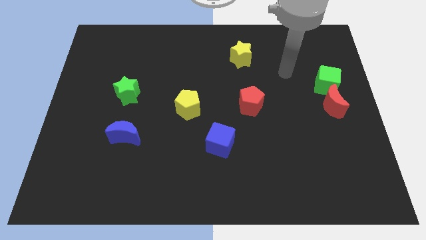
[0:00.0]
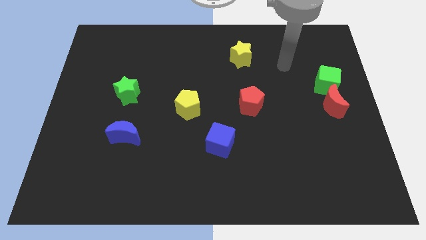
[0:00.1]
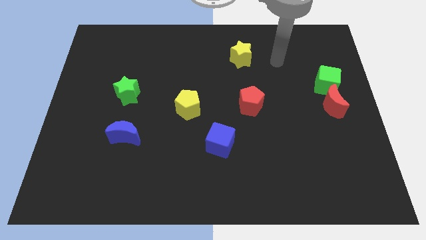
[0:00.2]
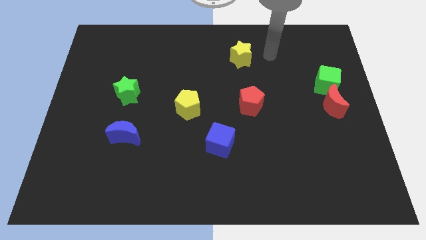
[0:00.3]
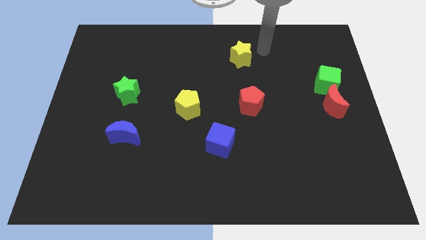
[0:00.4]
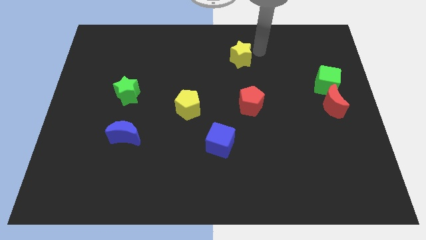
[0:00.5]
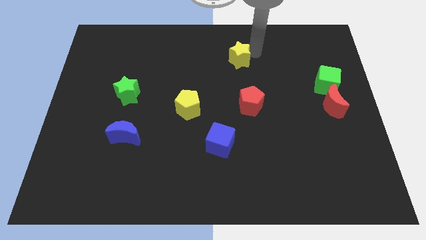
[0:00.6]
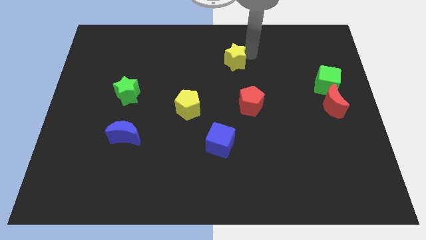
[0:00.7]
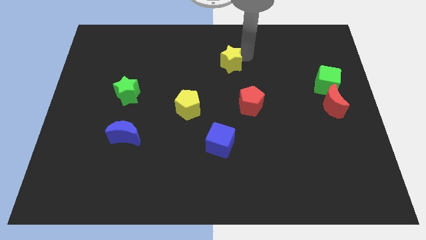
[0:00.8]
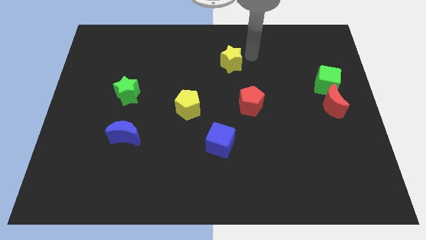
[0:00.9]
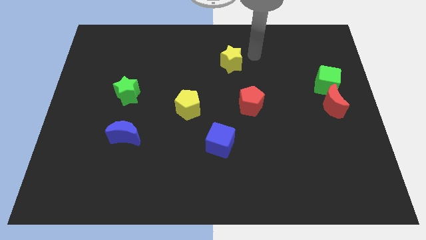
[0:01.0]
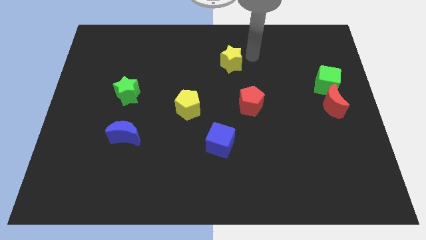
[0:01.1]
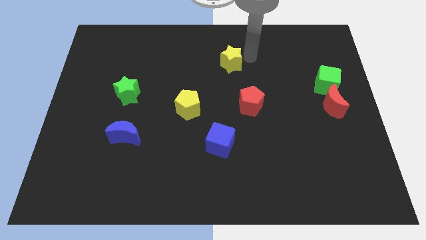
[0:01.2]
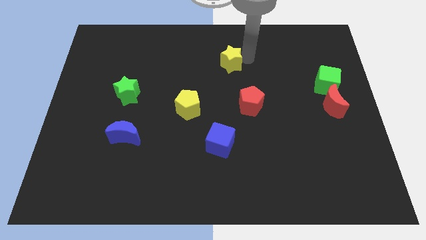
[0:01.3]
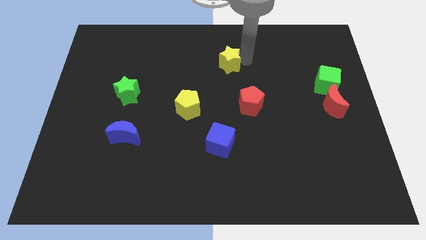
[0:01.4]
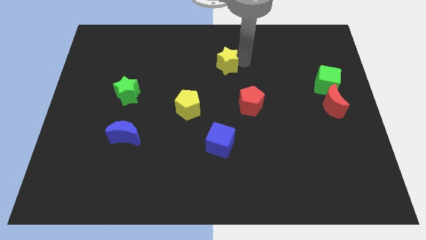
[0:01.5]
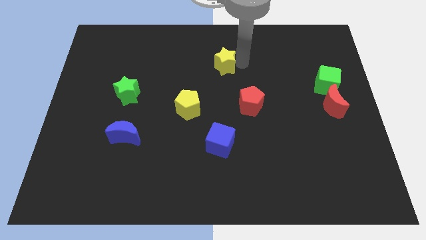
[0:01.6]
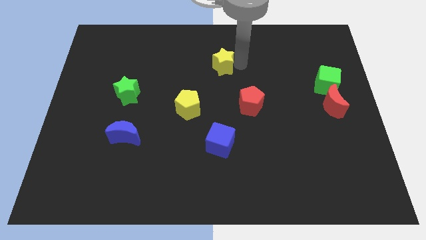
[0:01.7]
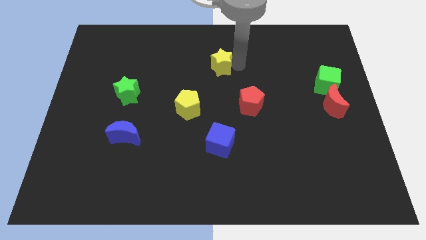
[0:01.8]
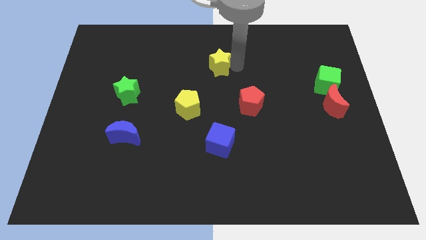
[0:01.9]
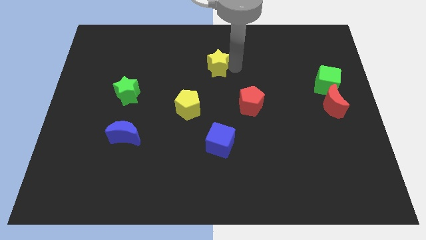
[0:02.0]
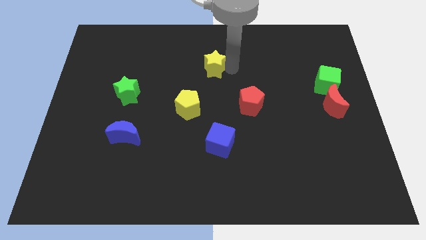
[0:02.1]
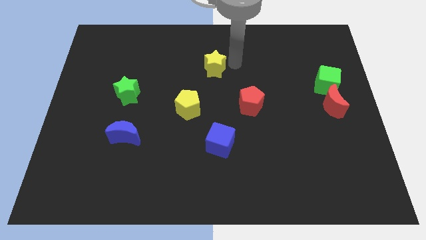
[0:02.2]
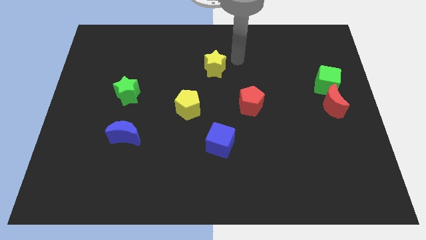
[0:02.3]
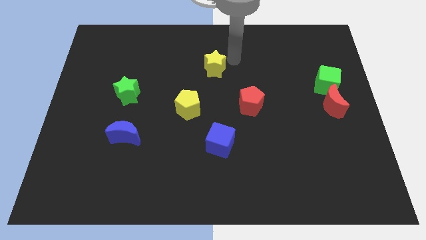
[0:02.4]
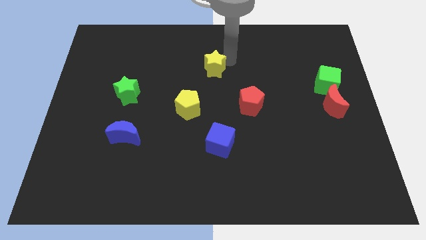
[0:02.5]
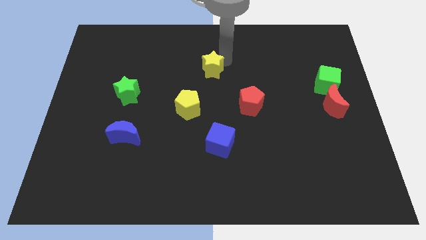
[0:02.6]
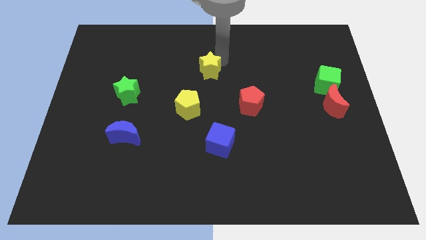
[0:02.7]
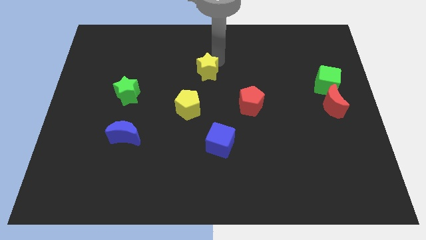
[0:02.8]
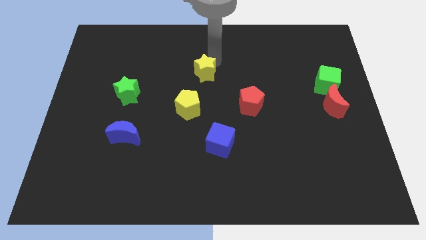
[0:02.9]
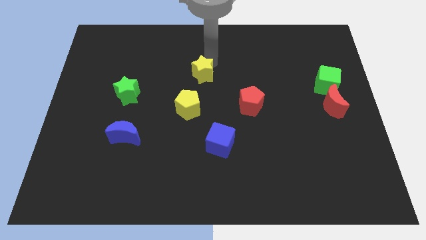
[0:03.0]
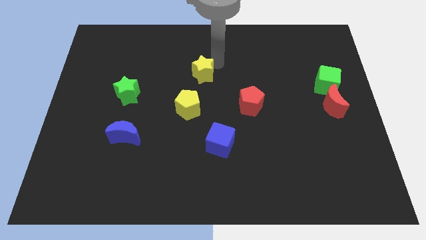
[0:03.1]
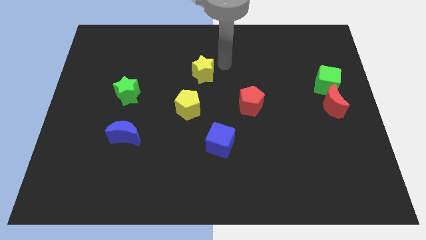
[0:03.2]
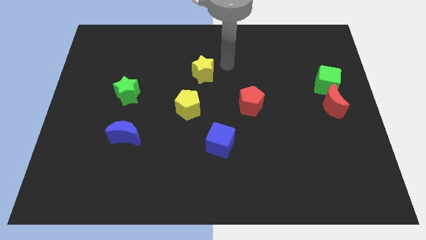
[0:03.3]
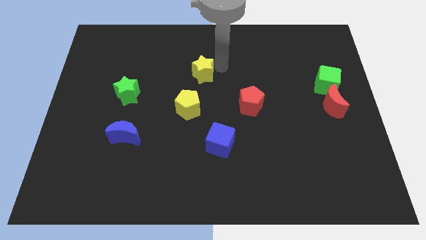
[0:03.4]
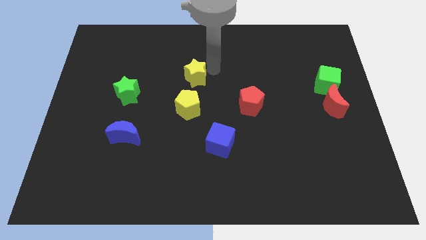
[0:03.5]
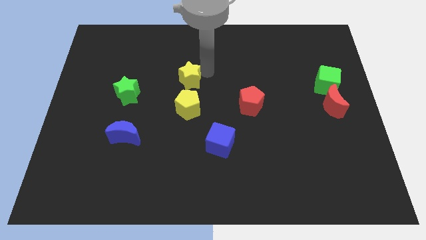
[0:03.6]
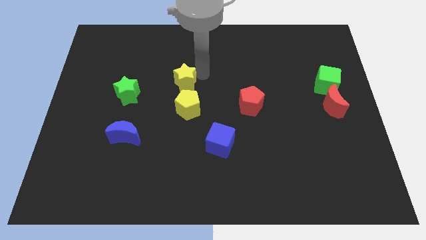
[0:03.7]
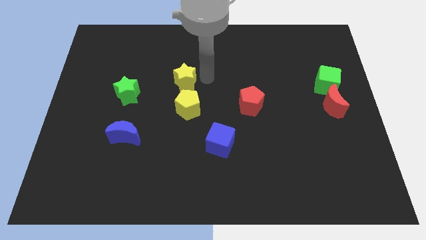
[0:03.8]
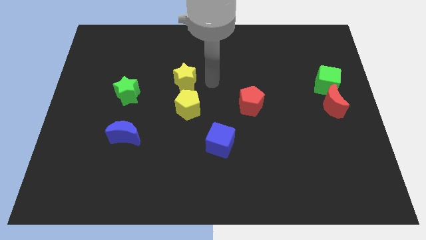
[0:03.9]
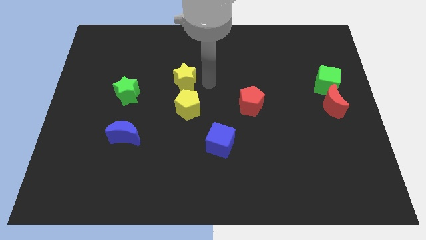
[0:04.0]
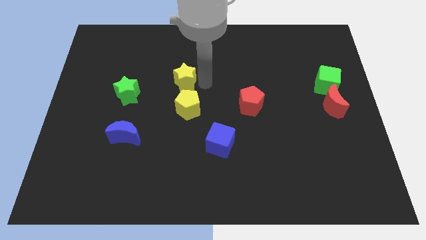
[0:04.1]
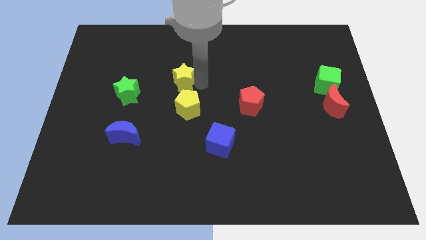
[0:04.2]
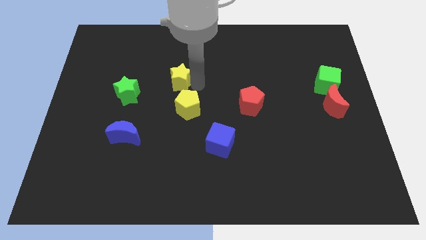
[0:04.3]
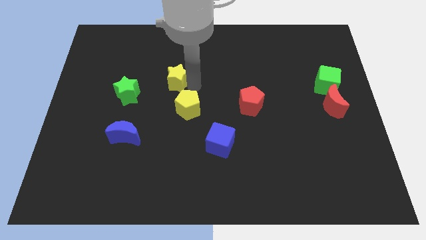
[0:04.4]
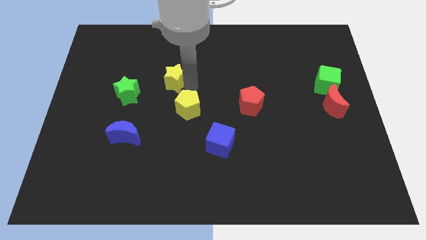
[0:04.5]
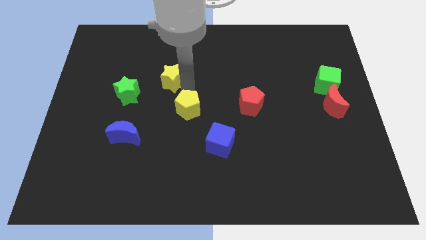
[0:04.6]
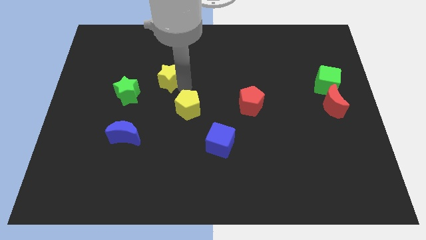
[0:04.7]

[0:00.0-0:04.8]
put the yellow star to the top right of the green star

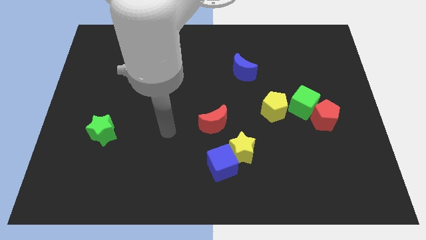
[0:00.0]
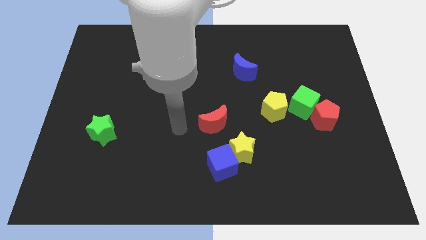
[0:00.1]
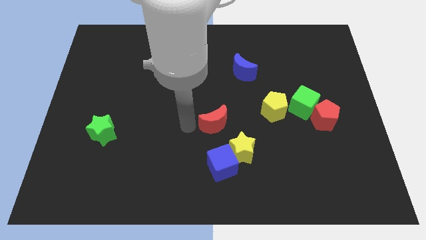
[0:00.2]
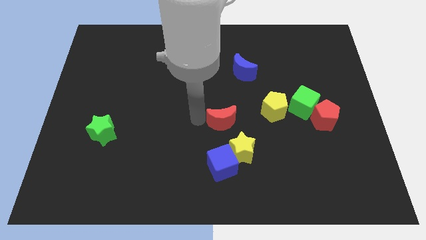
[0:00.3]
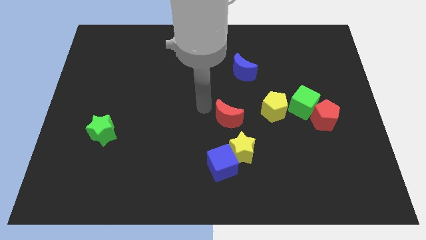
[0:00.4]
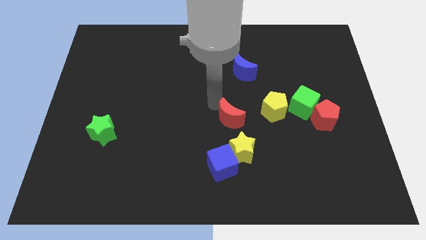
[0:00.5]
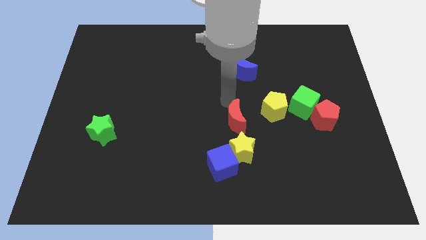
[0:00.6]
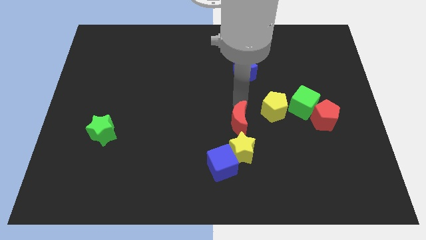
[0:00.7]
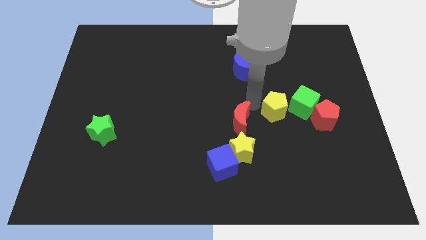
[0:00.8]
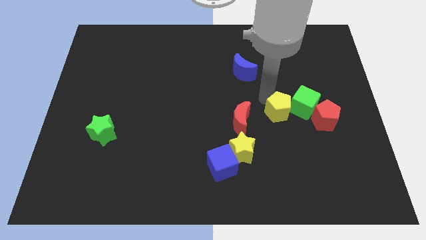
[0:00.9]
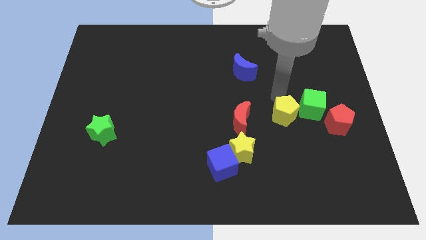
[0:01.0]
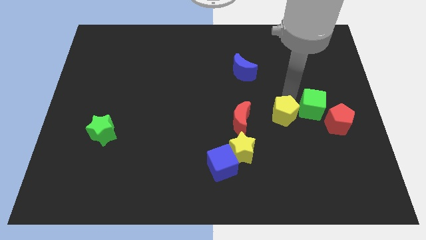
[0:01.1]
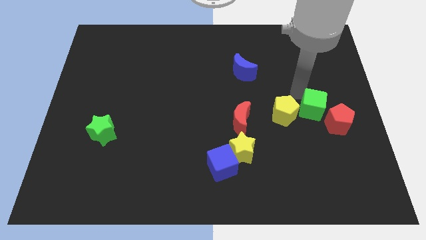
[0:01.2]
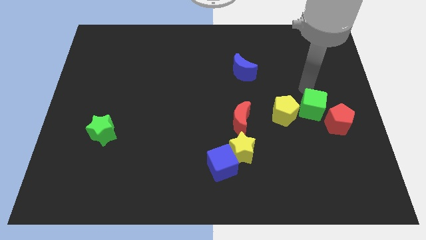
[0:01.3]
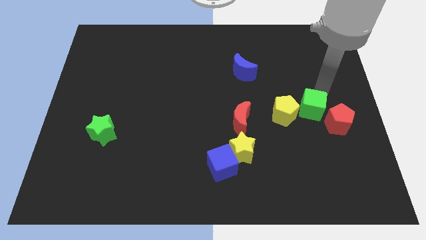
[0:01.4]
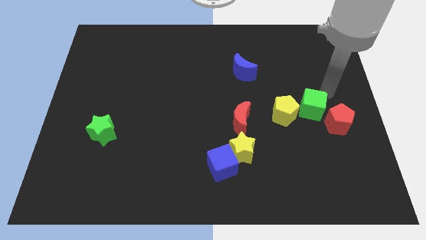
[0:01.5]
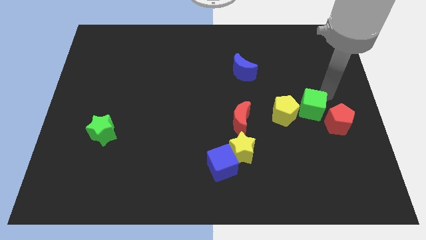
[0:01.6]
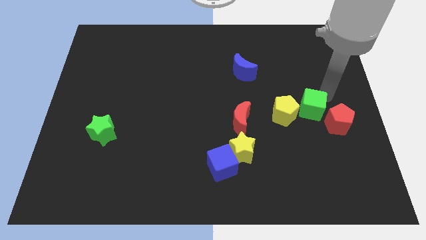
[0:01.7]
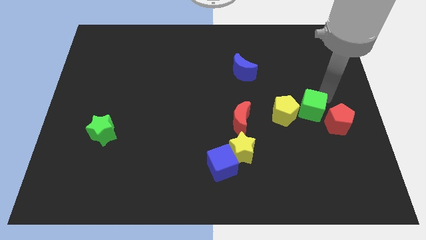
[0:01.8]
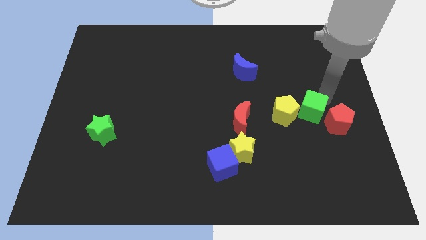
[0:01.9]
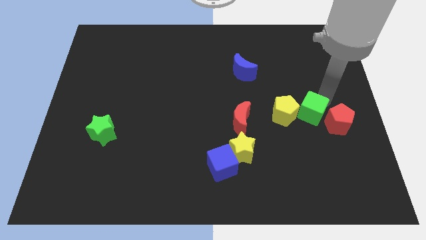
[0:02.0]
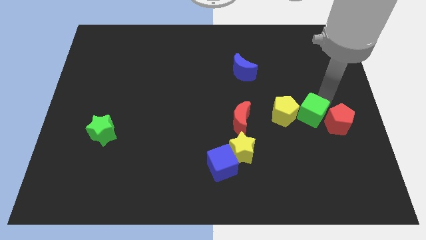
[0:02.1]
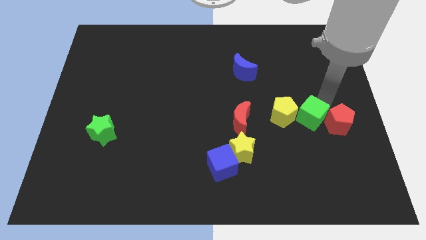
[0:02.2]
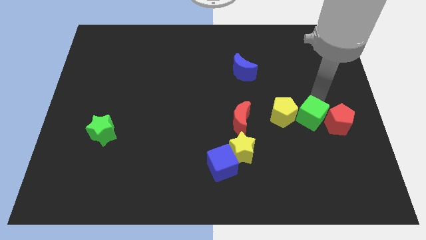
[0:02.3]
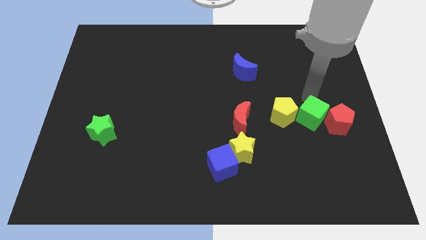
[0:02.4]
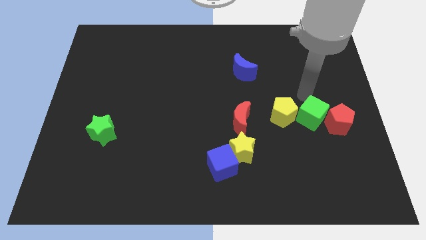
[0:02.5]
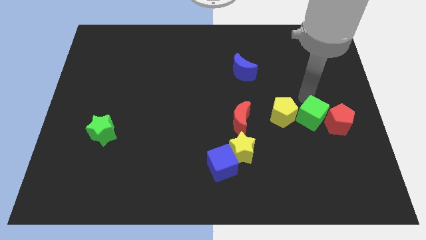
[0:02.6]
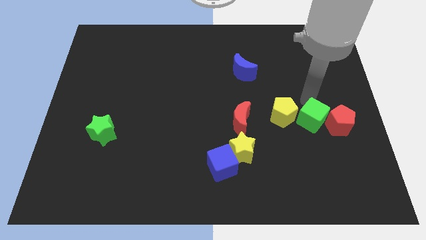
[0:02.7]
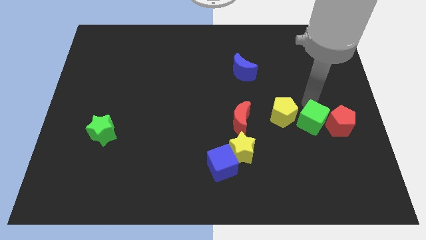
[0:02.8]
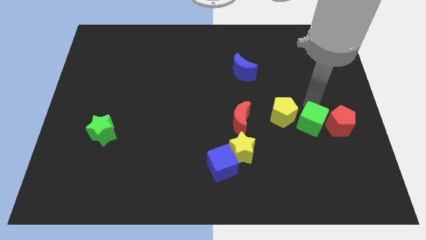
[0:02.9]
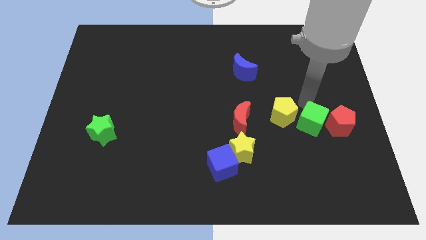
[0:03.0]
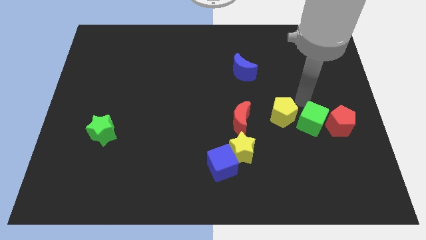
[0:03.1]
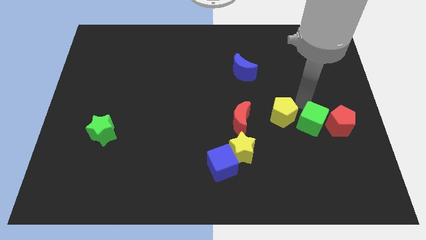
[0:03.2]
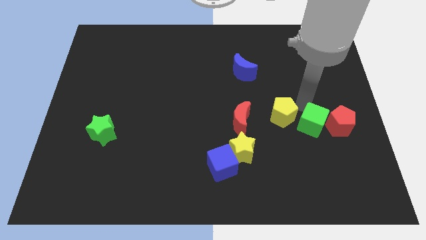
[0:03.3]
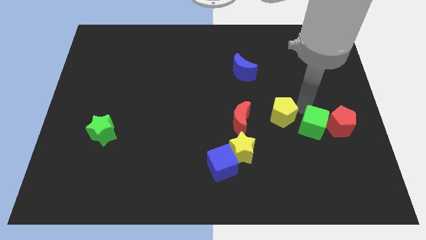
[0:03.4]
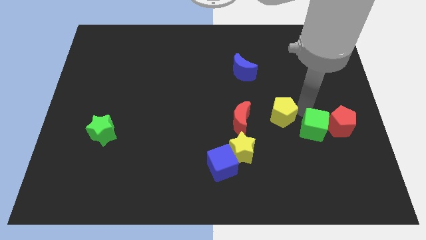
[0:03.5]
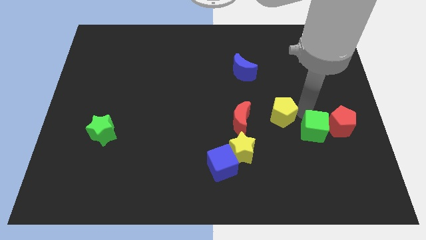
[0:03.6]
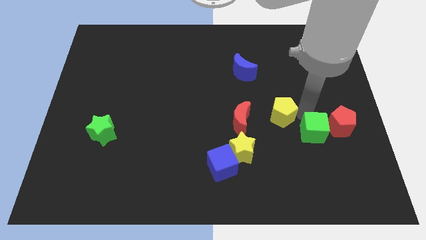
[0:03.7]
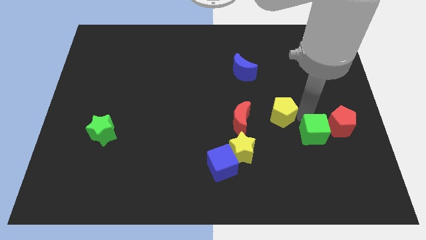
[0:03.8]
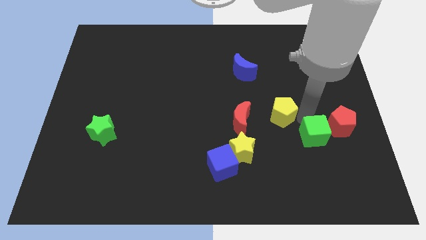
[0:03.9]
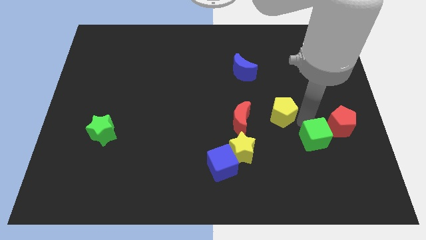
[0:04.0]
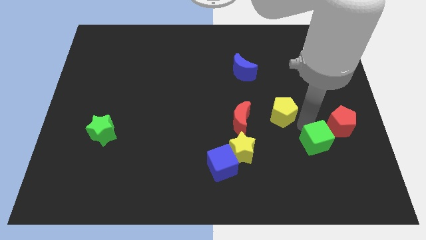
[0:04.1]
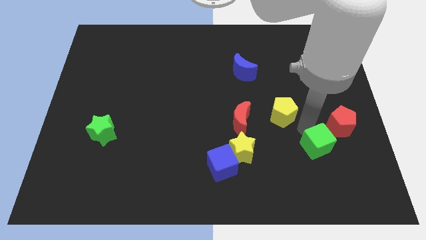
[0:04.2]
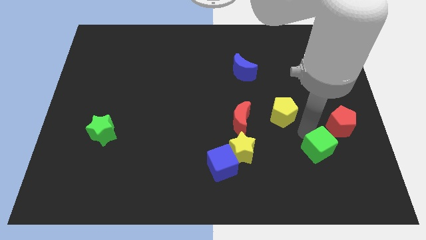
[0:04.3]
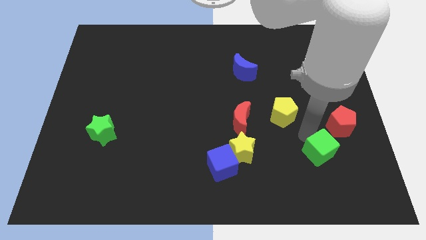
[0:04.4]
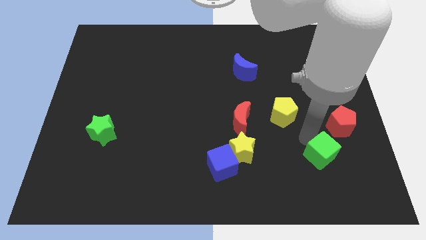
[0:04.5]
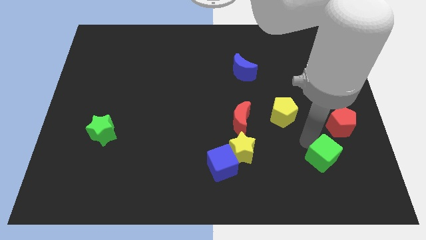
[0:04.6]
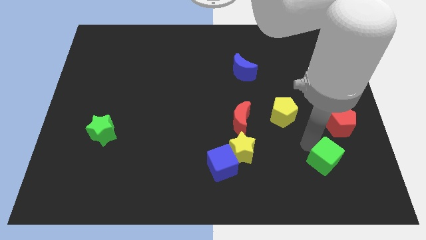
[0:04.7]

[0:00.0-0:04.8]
move the green cube below the red pentagon
